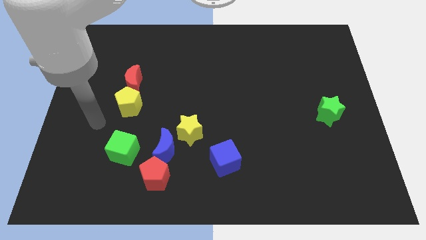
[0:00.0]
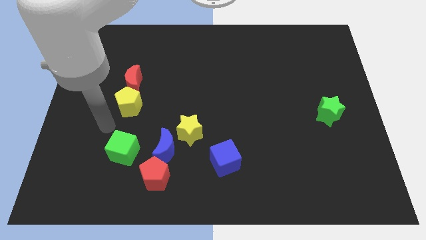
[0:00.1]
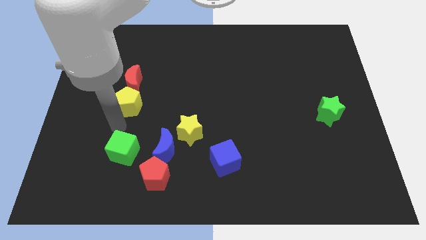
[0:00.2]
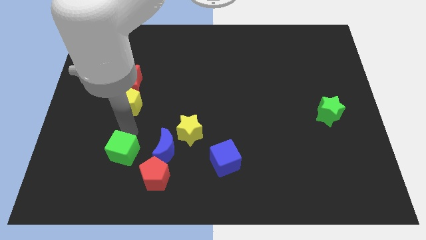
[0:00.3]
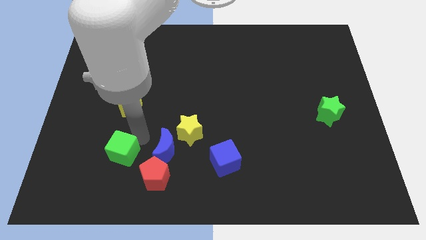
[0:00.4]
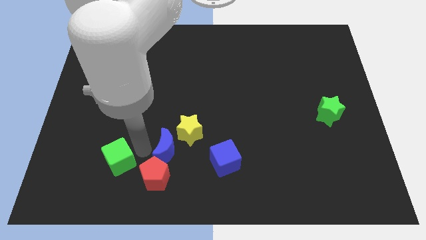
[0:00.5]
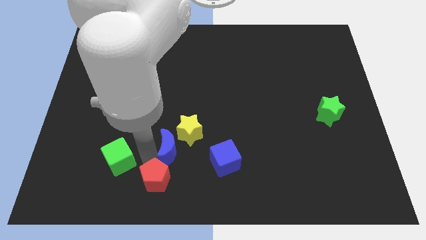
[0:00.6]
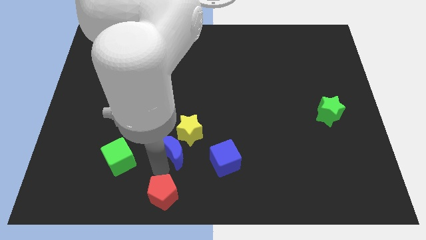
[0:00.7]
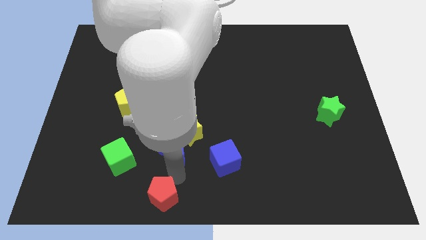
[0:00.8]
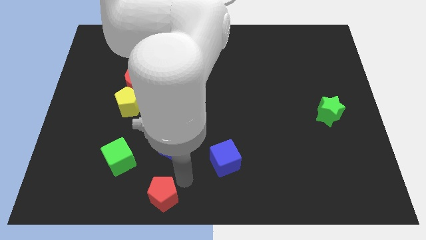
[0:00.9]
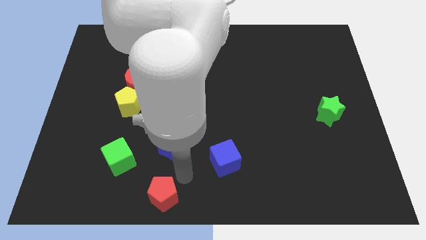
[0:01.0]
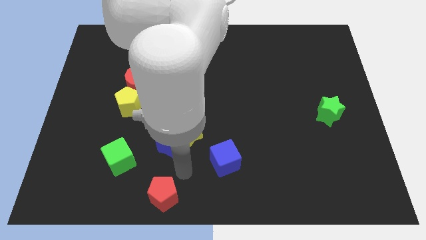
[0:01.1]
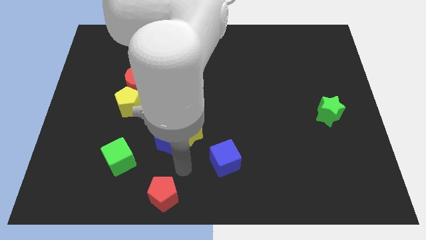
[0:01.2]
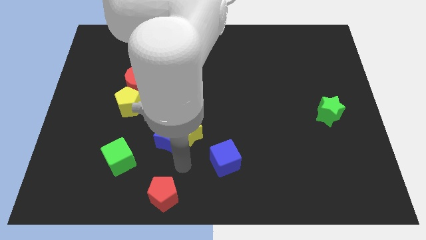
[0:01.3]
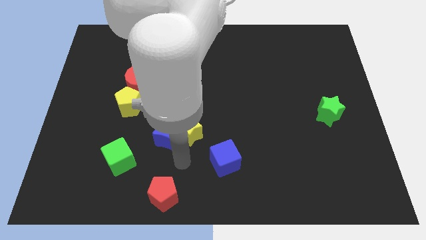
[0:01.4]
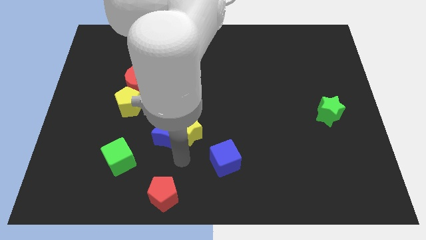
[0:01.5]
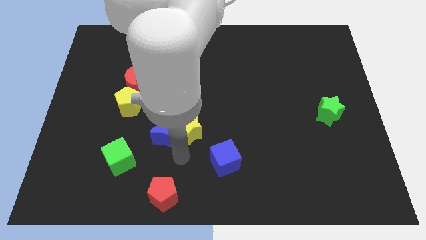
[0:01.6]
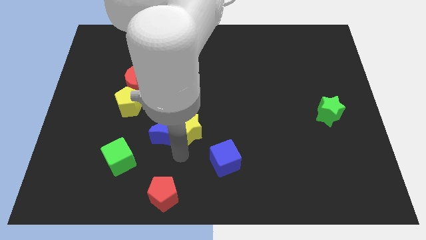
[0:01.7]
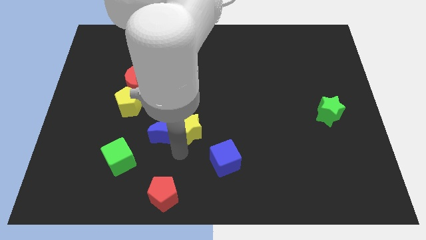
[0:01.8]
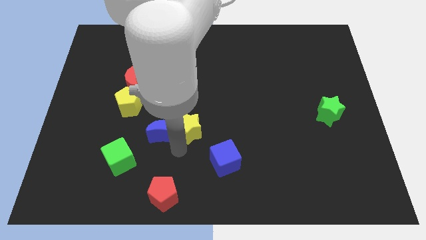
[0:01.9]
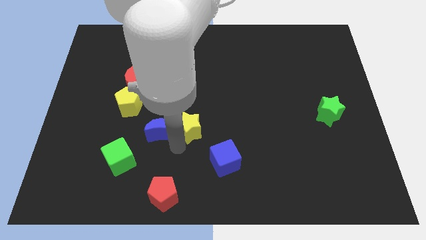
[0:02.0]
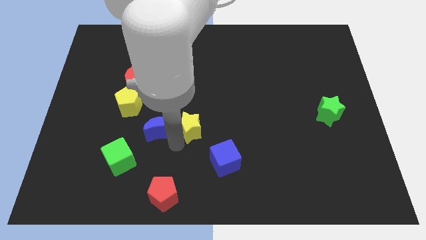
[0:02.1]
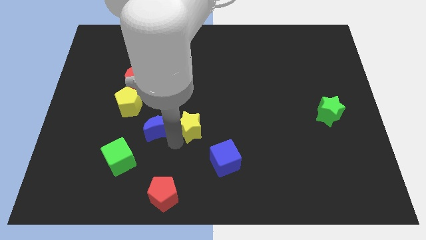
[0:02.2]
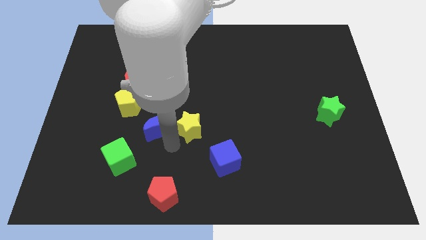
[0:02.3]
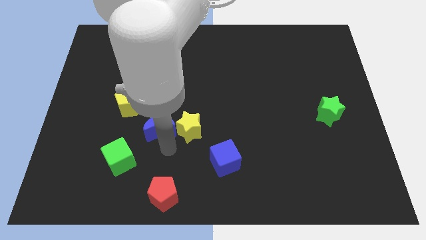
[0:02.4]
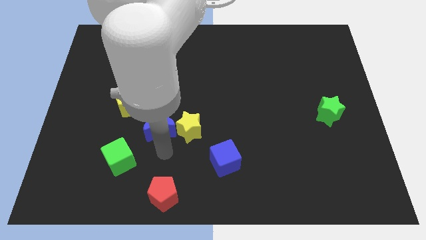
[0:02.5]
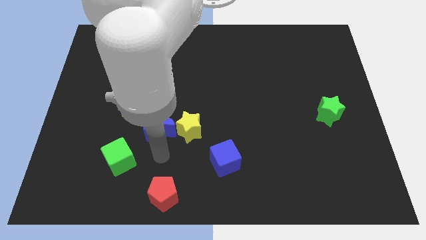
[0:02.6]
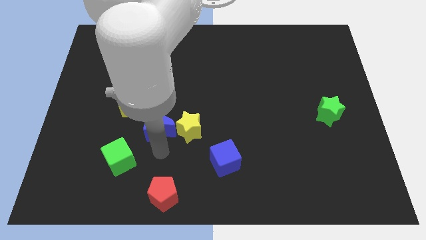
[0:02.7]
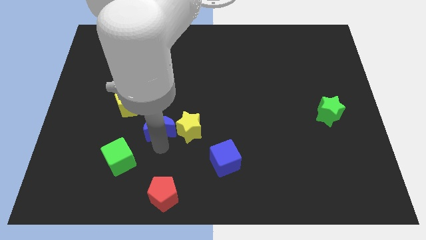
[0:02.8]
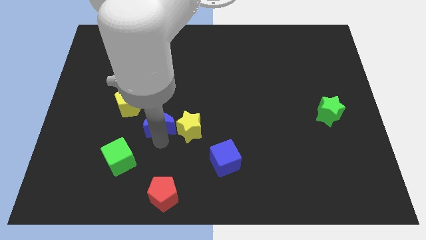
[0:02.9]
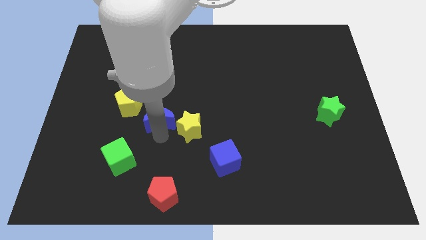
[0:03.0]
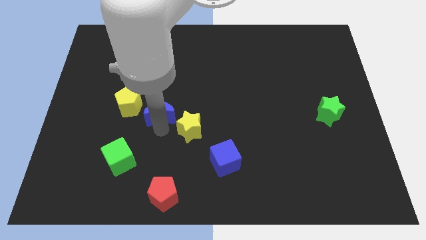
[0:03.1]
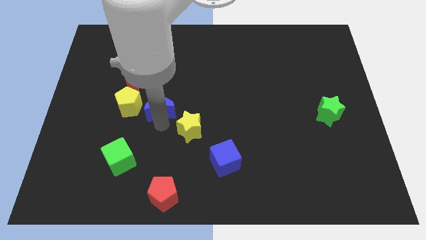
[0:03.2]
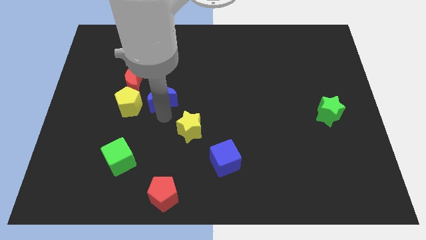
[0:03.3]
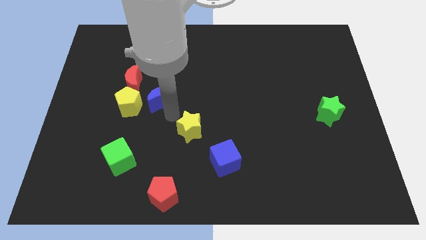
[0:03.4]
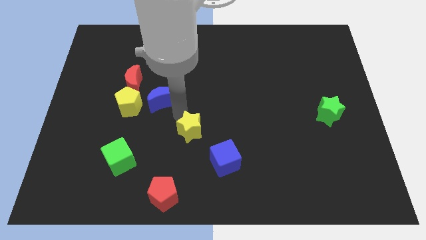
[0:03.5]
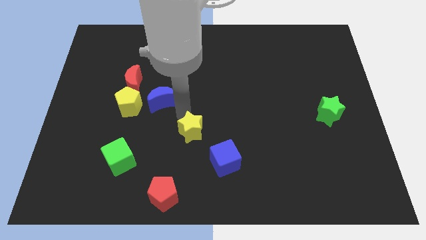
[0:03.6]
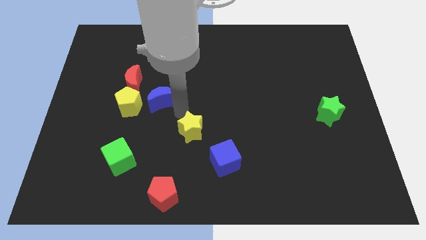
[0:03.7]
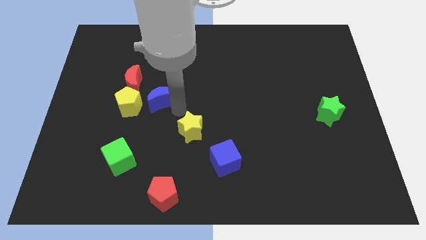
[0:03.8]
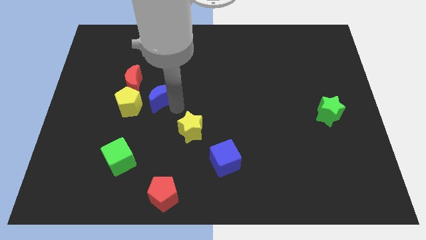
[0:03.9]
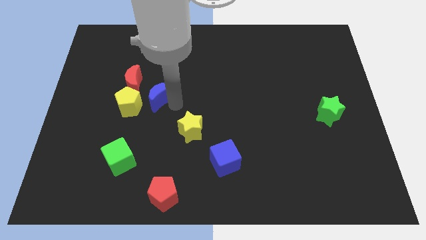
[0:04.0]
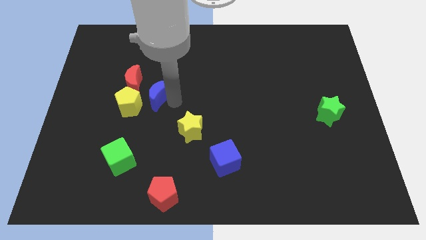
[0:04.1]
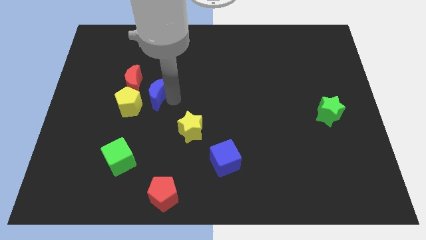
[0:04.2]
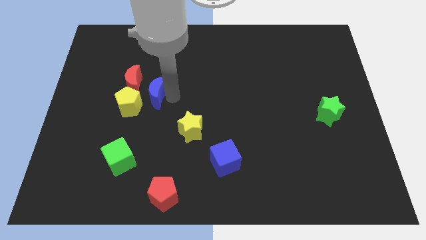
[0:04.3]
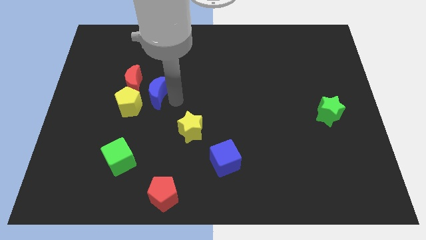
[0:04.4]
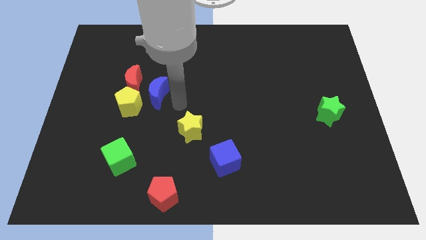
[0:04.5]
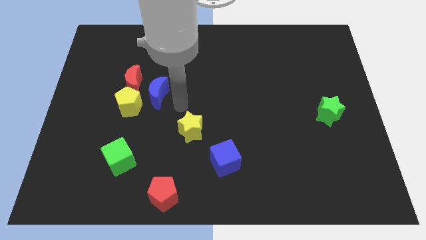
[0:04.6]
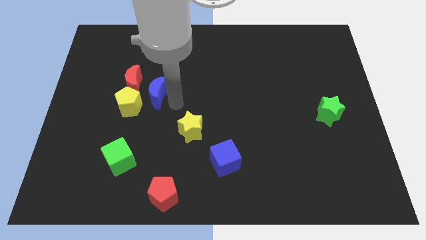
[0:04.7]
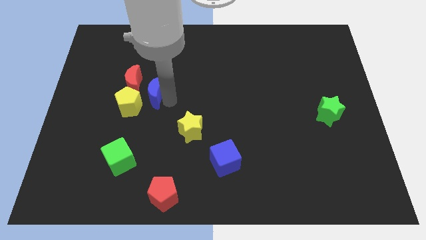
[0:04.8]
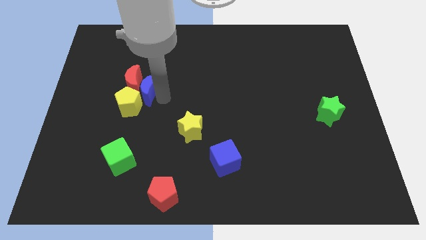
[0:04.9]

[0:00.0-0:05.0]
slide the blue moon next to the red moon

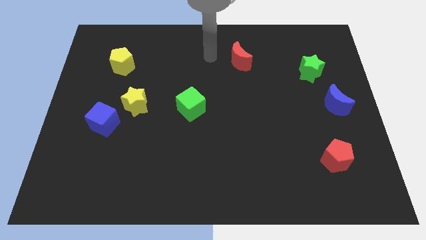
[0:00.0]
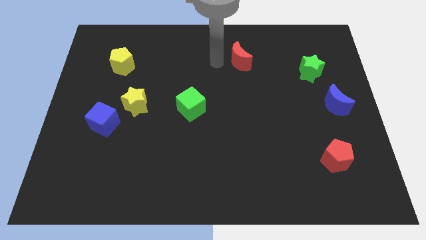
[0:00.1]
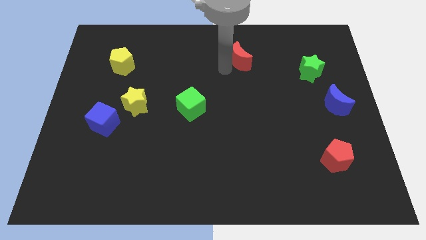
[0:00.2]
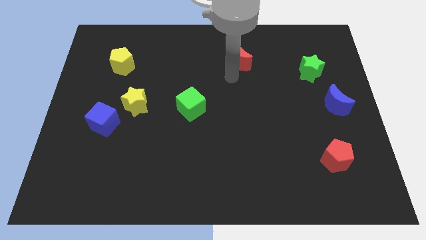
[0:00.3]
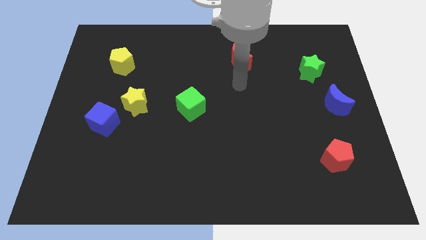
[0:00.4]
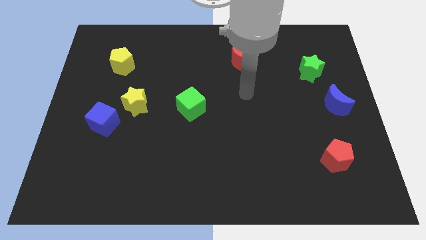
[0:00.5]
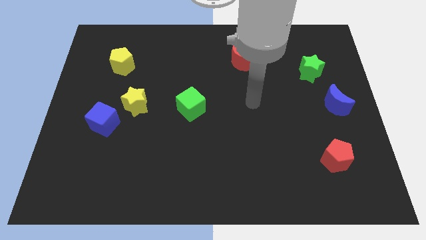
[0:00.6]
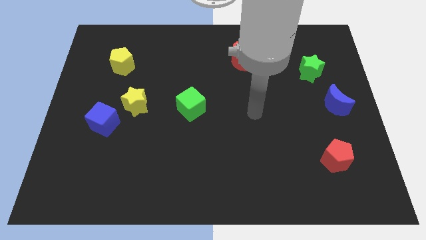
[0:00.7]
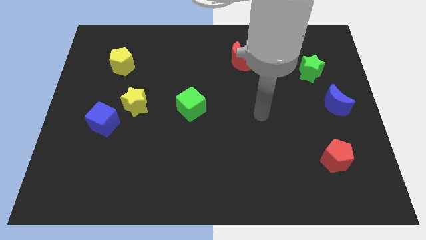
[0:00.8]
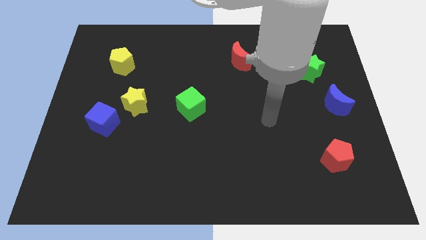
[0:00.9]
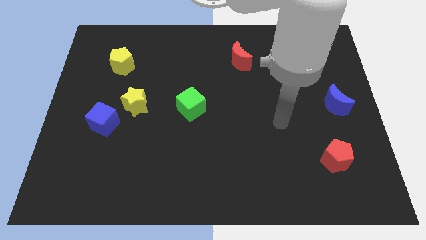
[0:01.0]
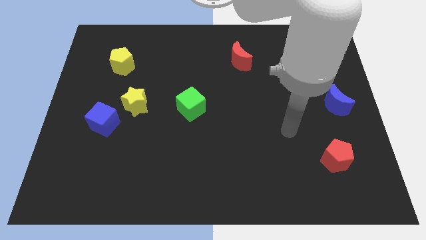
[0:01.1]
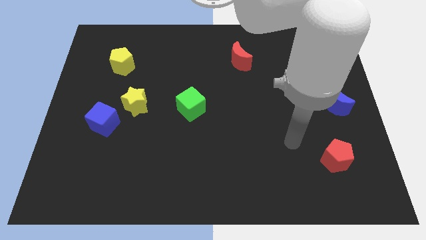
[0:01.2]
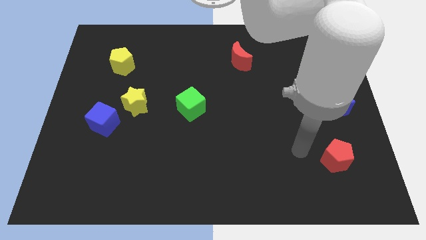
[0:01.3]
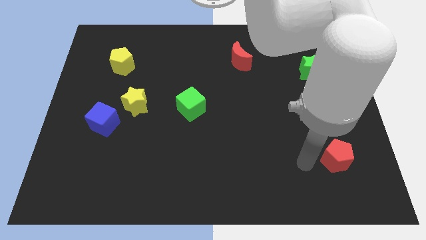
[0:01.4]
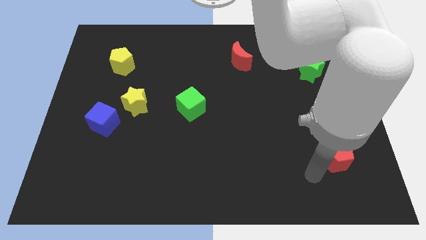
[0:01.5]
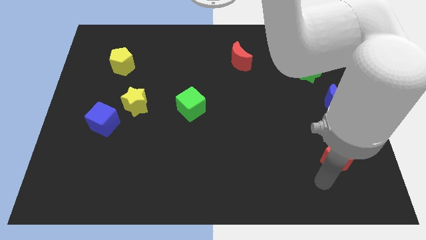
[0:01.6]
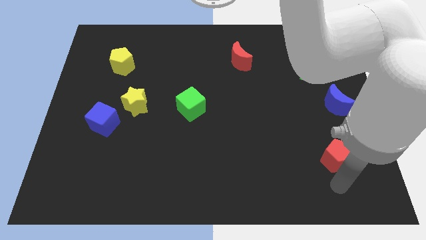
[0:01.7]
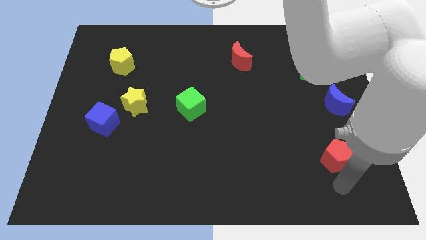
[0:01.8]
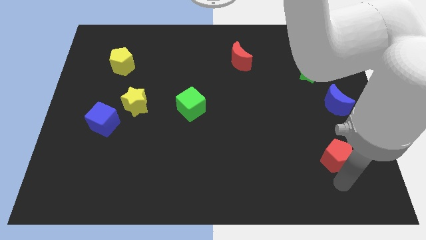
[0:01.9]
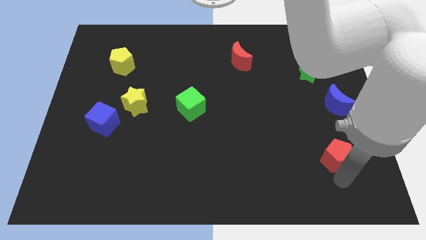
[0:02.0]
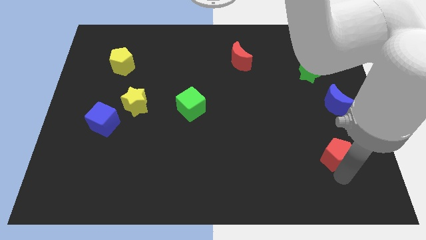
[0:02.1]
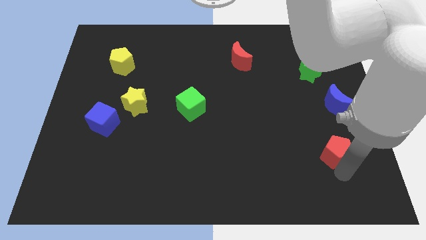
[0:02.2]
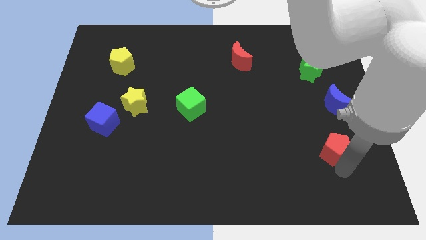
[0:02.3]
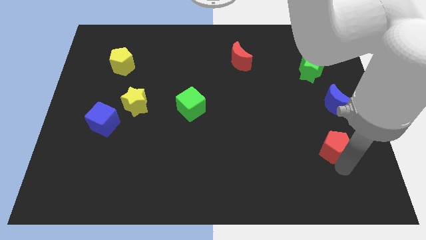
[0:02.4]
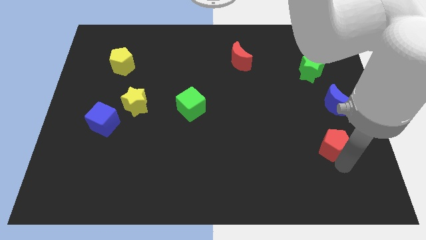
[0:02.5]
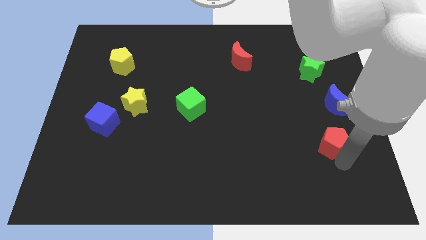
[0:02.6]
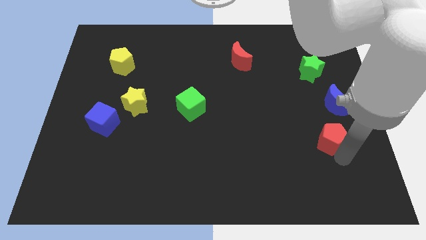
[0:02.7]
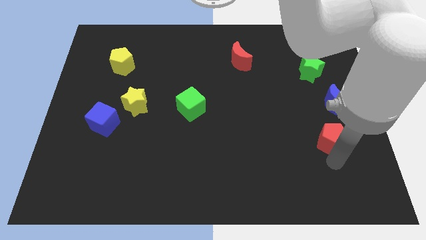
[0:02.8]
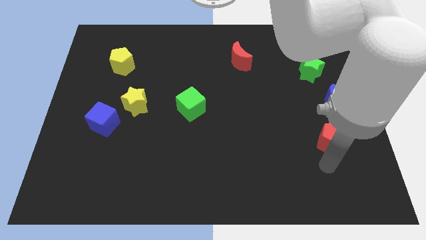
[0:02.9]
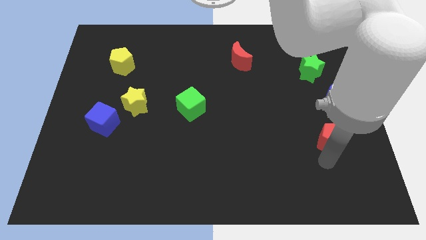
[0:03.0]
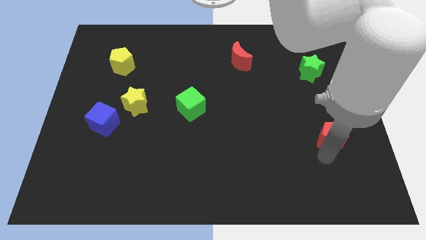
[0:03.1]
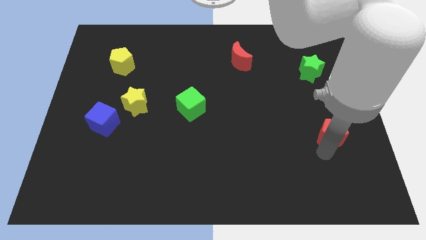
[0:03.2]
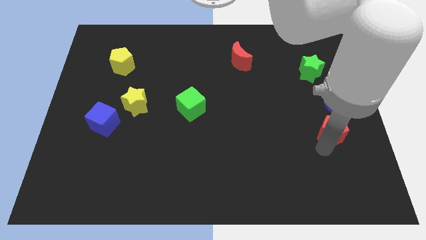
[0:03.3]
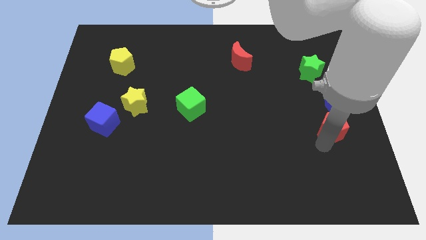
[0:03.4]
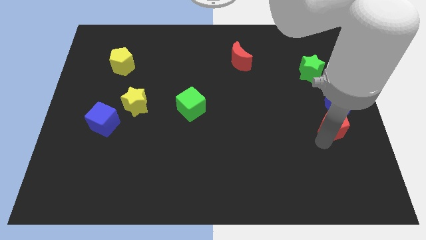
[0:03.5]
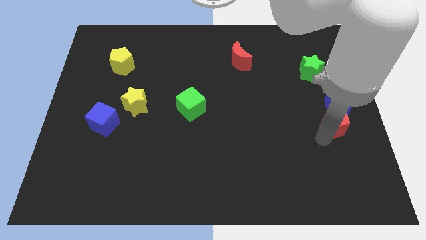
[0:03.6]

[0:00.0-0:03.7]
slide the red pentagon close to the blue moon
